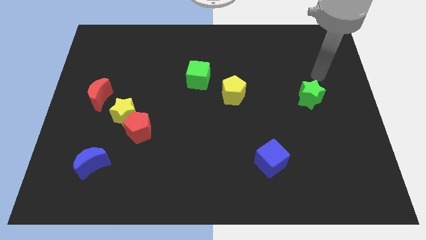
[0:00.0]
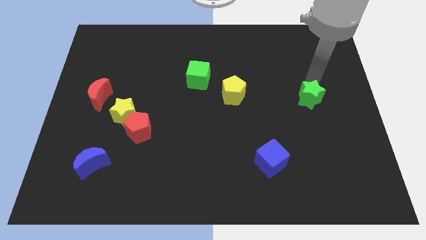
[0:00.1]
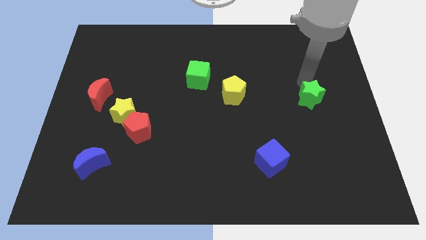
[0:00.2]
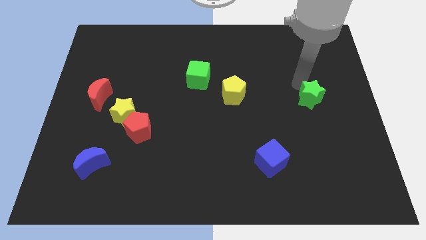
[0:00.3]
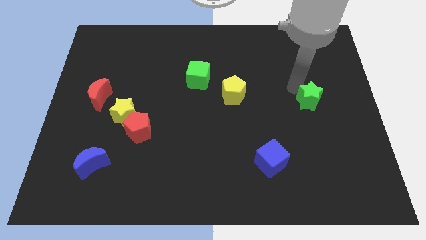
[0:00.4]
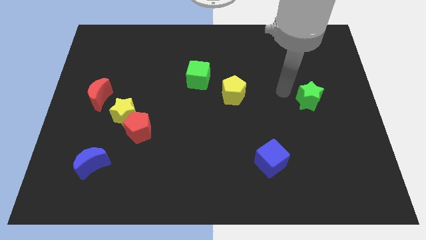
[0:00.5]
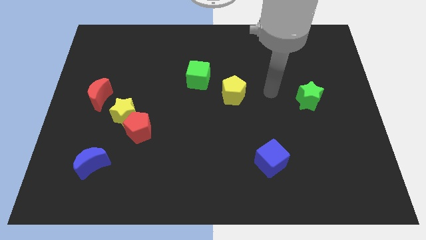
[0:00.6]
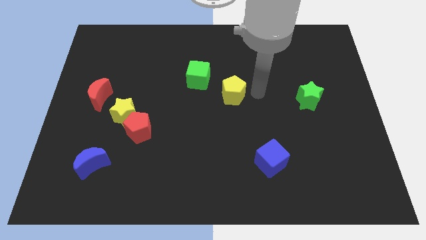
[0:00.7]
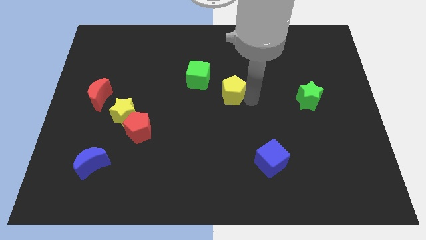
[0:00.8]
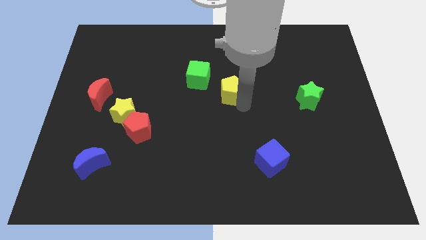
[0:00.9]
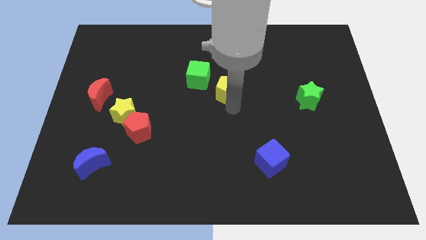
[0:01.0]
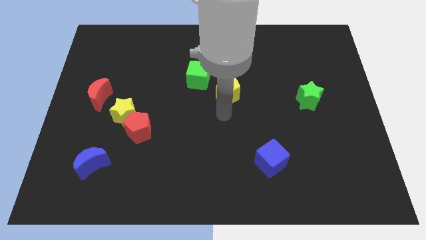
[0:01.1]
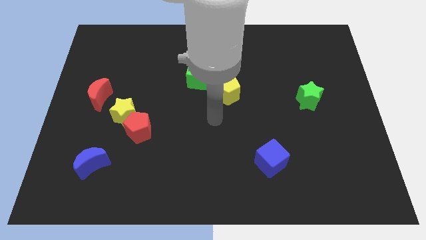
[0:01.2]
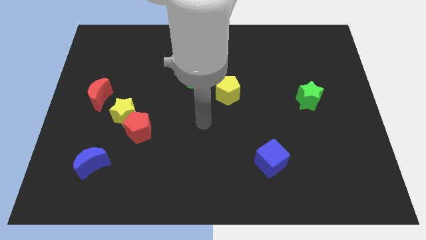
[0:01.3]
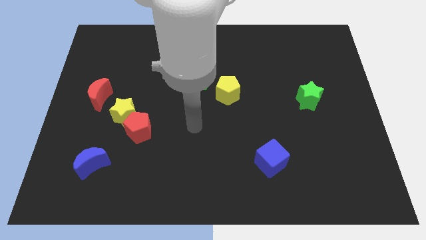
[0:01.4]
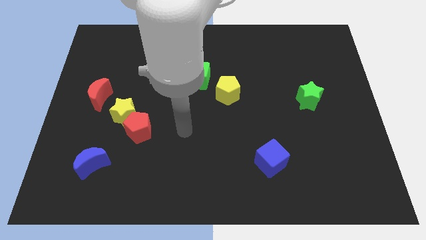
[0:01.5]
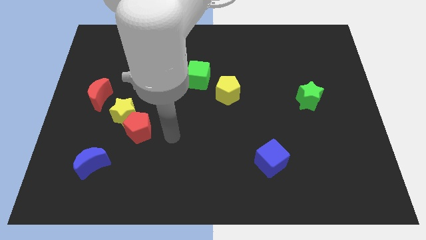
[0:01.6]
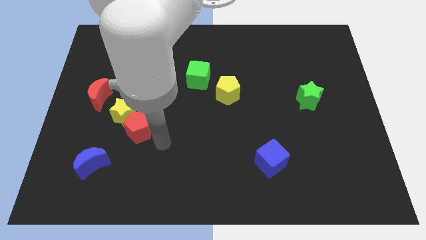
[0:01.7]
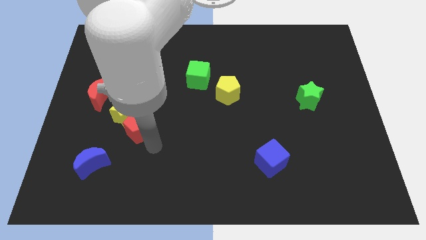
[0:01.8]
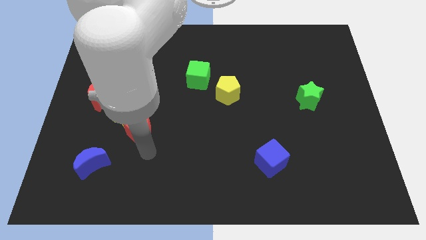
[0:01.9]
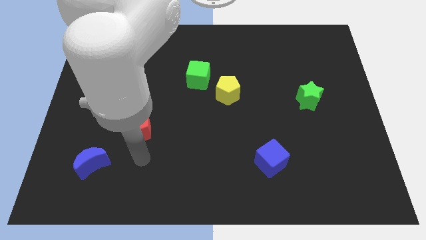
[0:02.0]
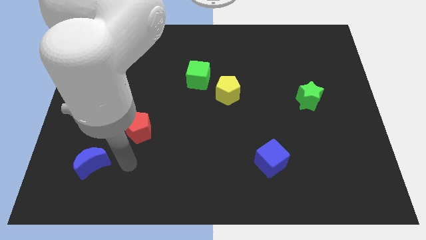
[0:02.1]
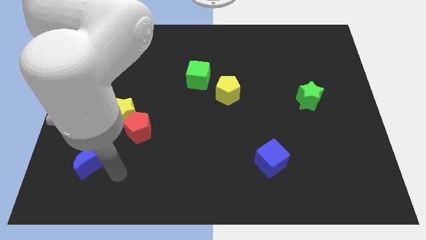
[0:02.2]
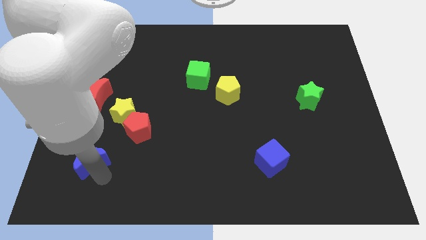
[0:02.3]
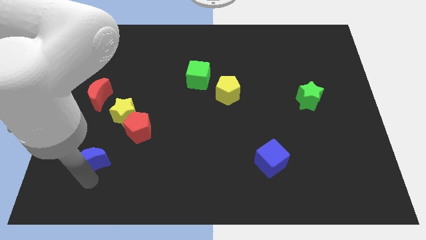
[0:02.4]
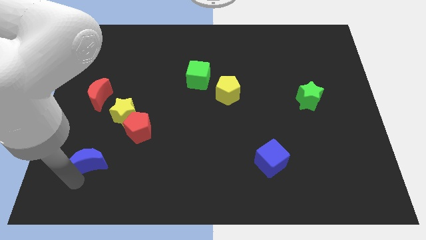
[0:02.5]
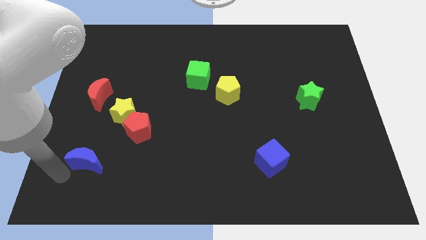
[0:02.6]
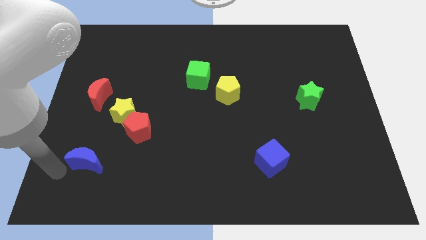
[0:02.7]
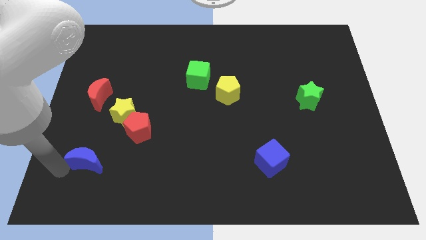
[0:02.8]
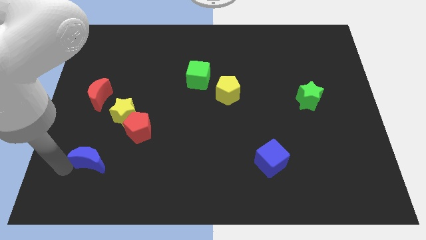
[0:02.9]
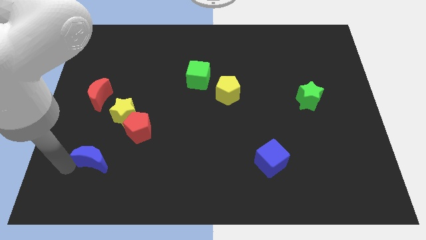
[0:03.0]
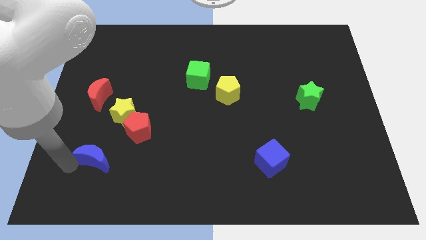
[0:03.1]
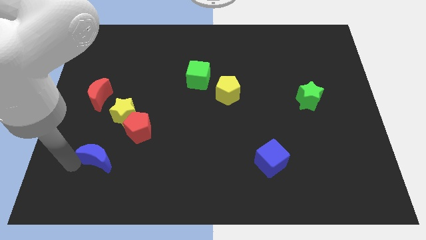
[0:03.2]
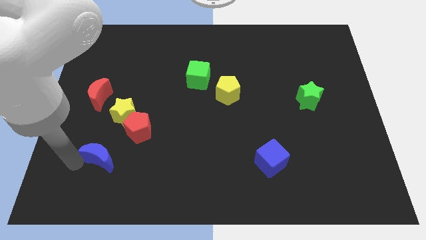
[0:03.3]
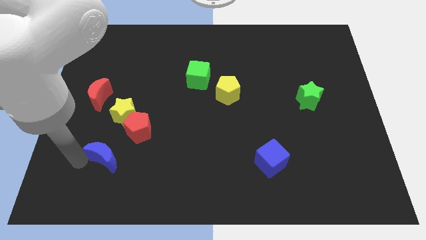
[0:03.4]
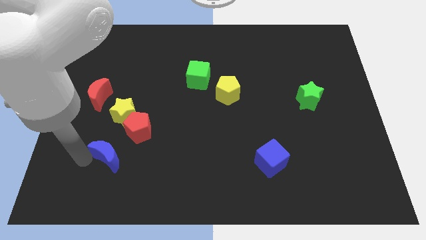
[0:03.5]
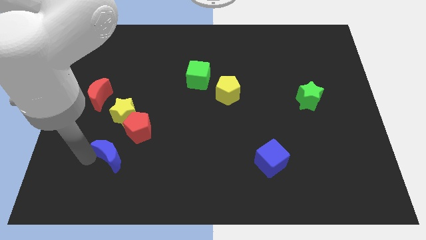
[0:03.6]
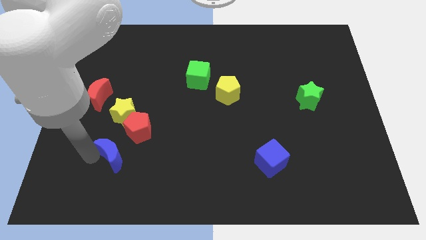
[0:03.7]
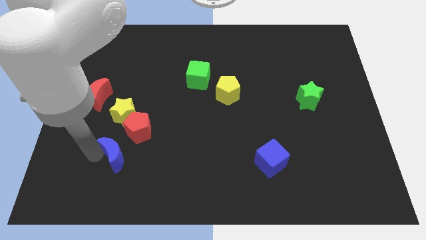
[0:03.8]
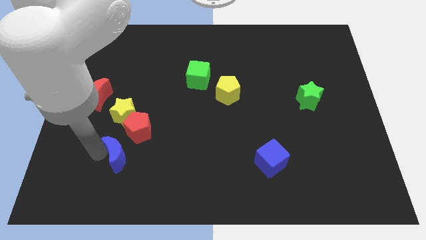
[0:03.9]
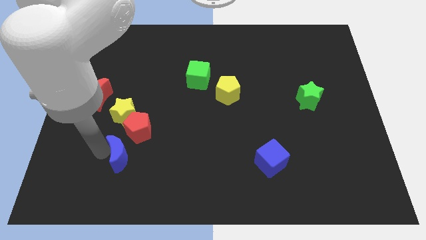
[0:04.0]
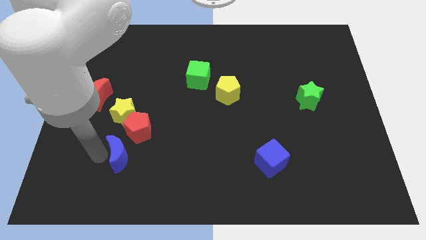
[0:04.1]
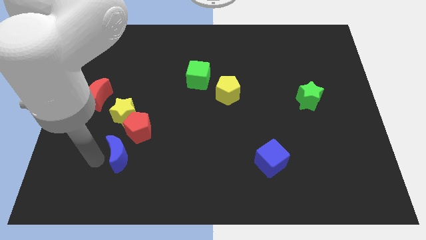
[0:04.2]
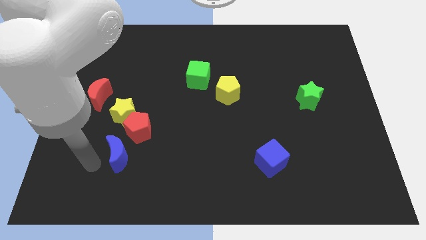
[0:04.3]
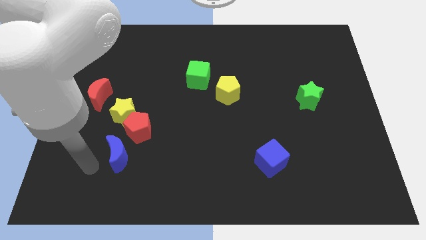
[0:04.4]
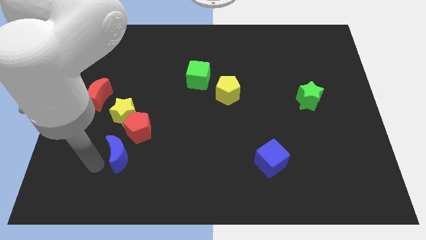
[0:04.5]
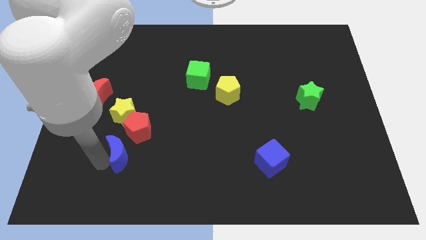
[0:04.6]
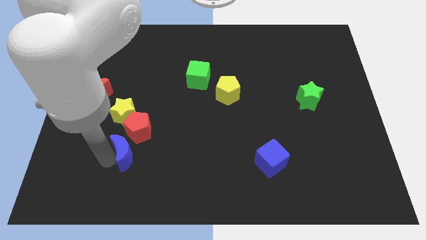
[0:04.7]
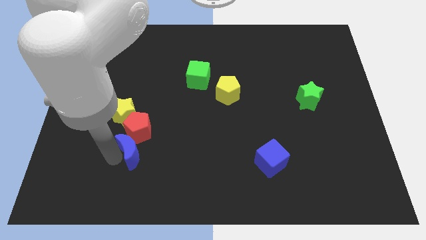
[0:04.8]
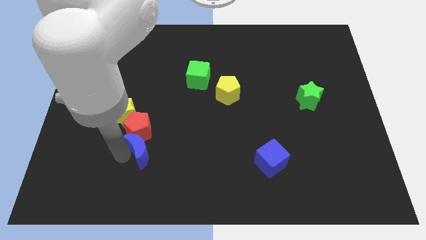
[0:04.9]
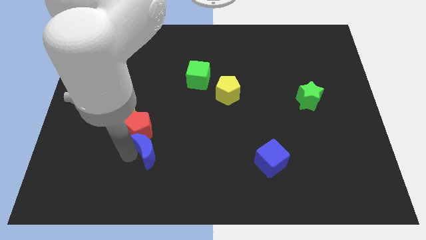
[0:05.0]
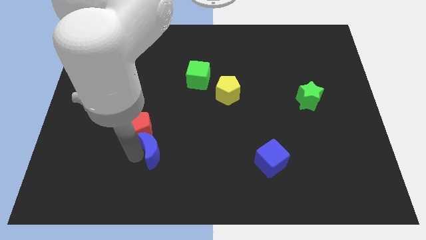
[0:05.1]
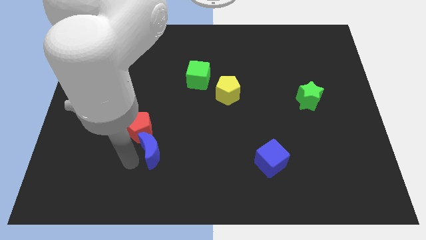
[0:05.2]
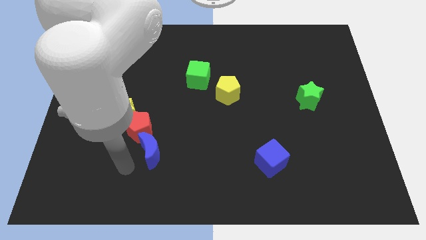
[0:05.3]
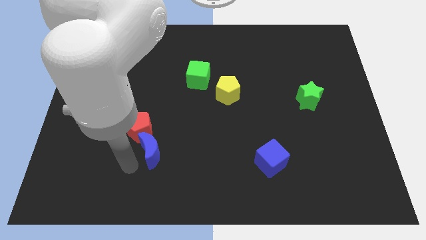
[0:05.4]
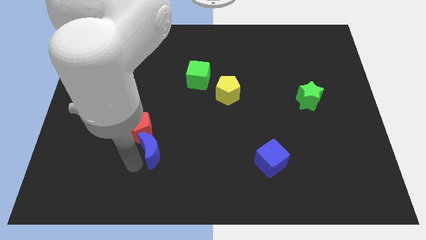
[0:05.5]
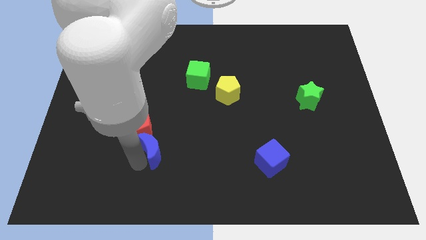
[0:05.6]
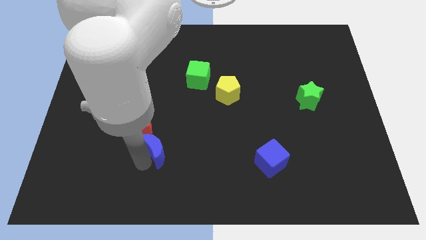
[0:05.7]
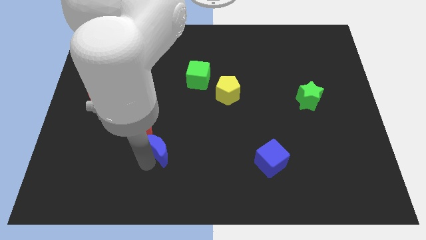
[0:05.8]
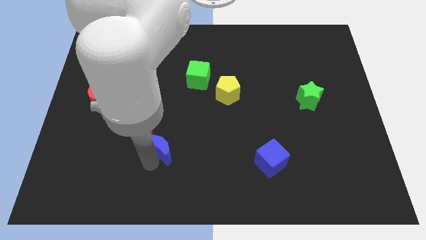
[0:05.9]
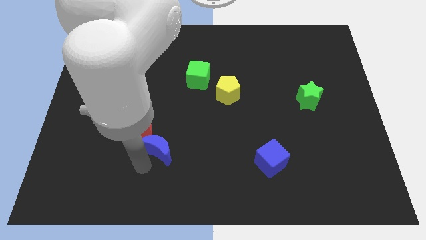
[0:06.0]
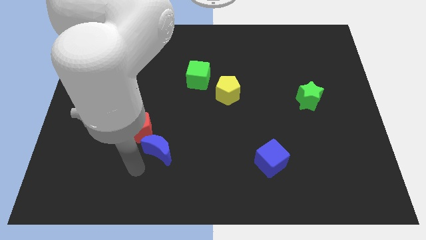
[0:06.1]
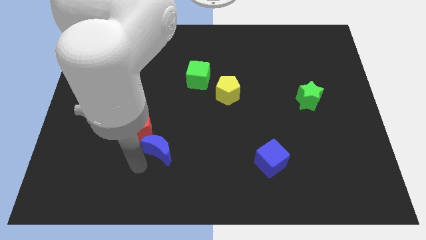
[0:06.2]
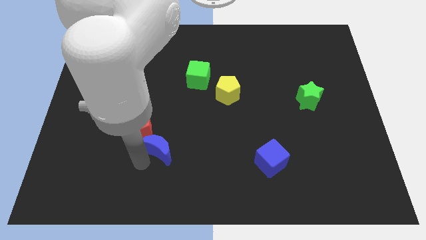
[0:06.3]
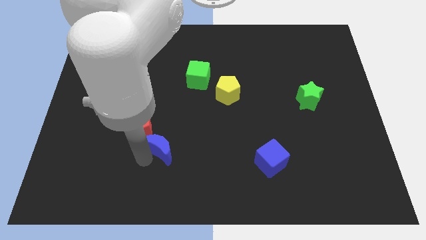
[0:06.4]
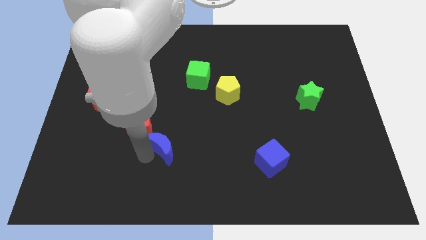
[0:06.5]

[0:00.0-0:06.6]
put the blue moon to the right of the red pentagon

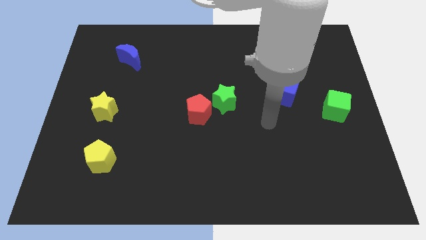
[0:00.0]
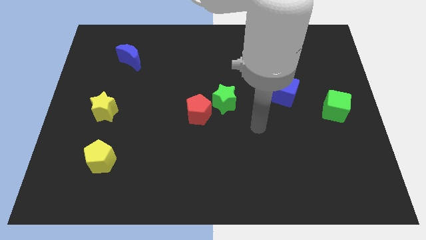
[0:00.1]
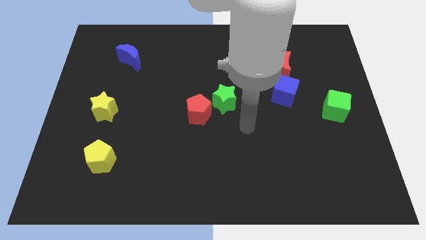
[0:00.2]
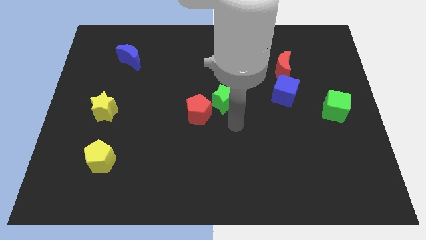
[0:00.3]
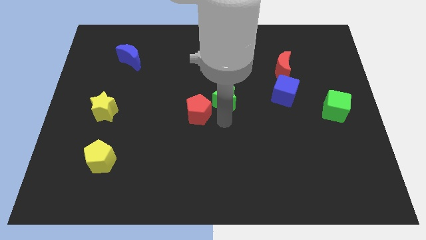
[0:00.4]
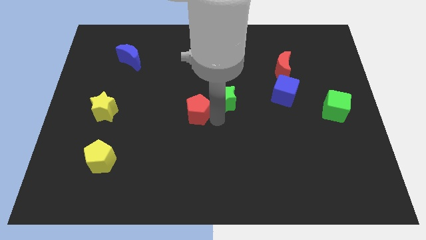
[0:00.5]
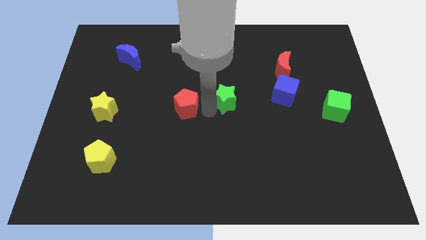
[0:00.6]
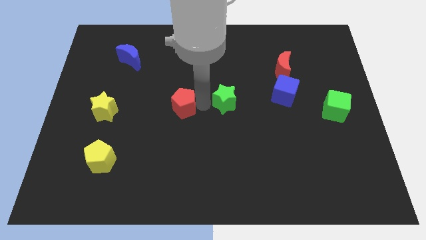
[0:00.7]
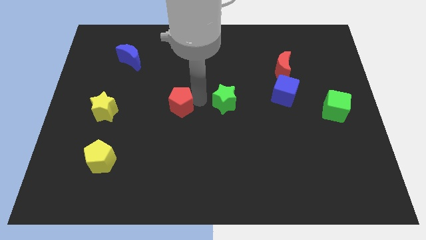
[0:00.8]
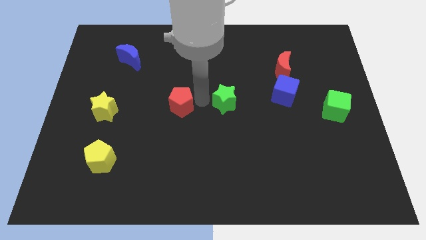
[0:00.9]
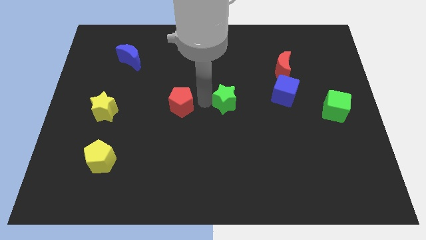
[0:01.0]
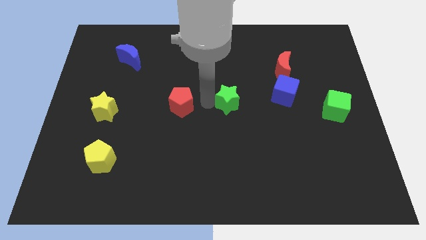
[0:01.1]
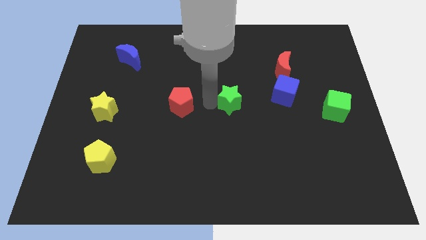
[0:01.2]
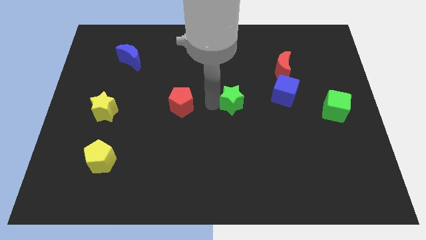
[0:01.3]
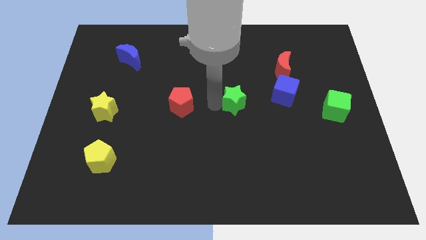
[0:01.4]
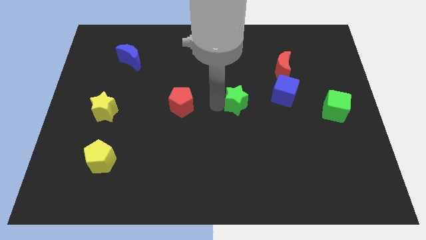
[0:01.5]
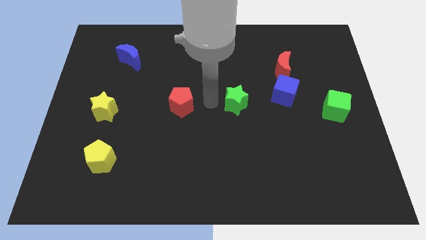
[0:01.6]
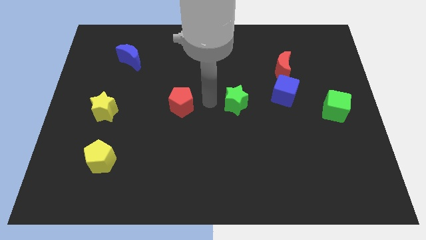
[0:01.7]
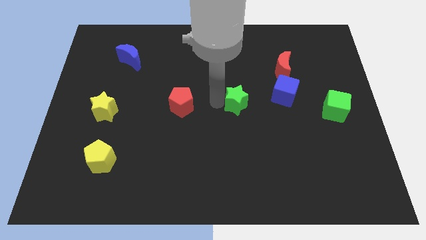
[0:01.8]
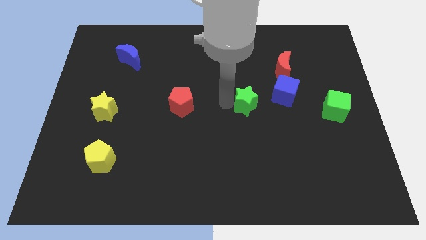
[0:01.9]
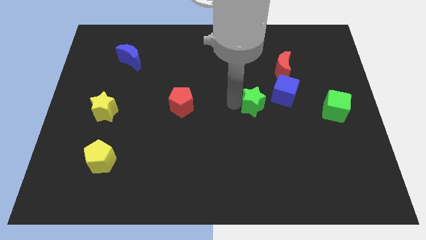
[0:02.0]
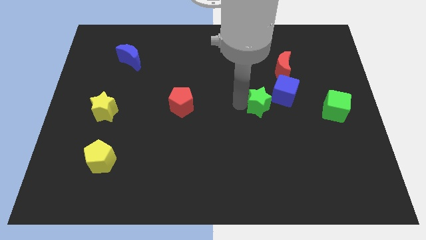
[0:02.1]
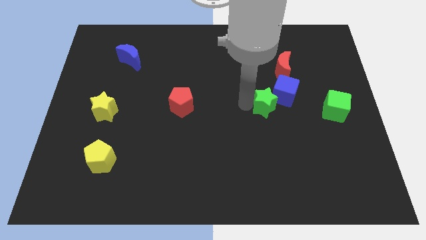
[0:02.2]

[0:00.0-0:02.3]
move the green star to the left side of the green cube
